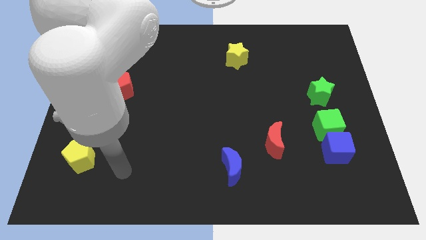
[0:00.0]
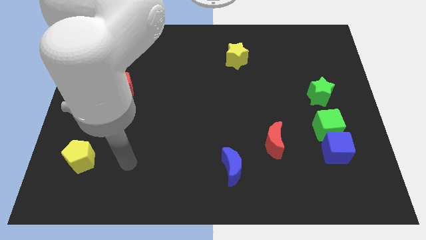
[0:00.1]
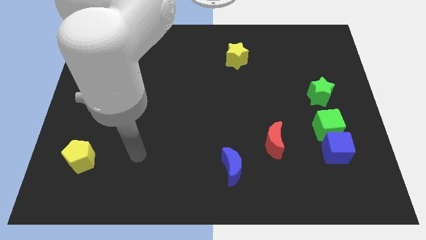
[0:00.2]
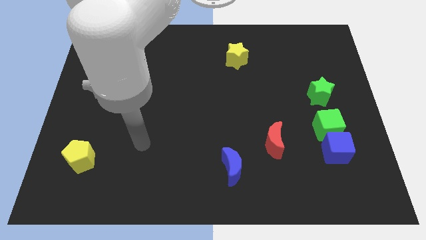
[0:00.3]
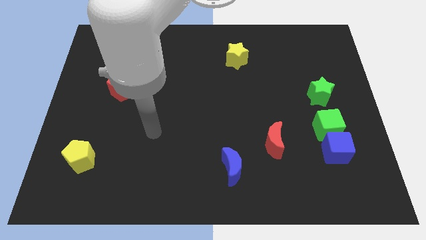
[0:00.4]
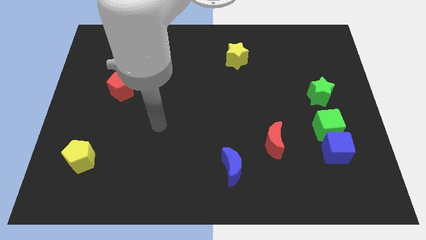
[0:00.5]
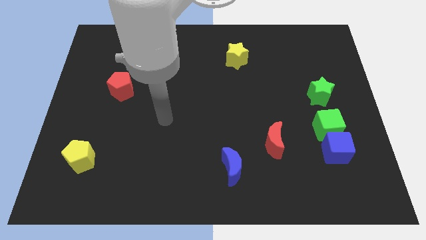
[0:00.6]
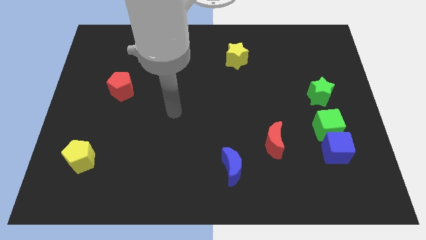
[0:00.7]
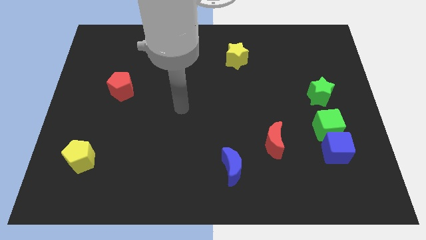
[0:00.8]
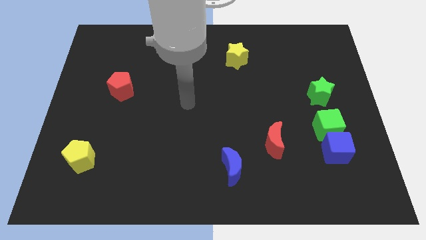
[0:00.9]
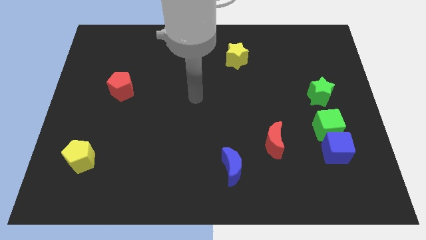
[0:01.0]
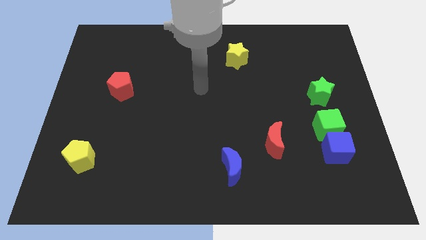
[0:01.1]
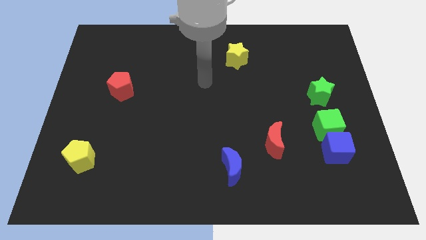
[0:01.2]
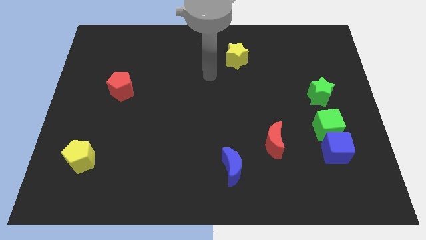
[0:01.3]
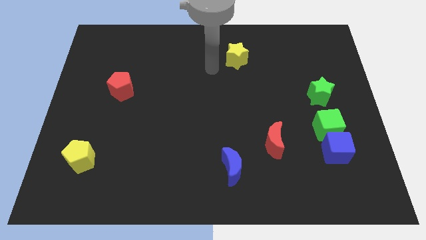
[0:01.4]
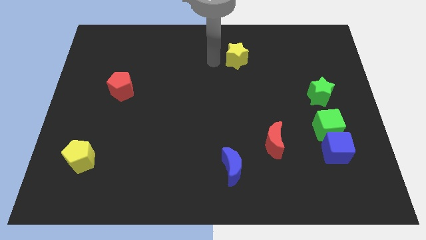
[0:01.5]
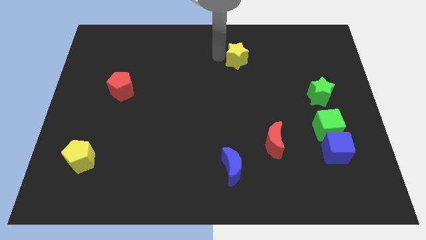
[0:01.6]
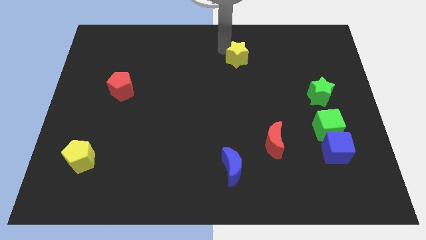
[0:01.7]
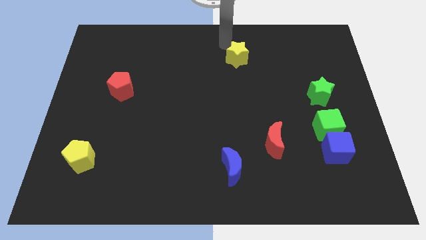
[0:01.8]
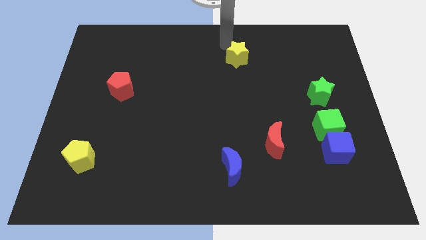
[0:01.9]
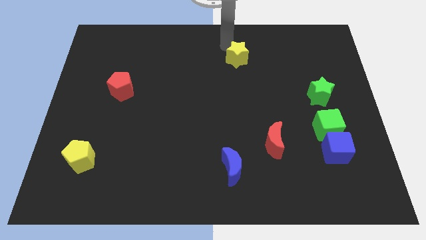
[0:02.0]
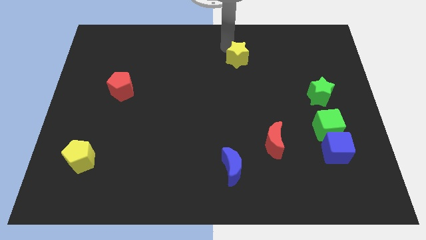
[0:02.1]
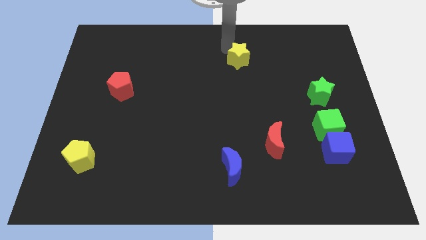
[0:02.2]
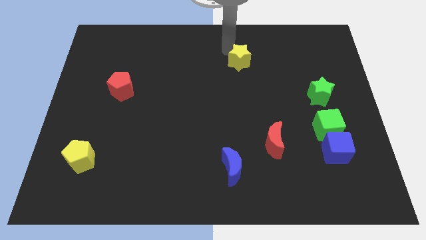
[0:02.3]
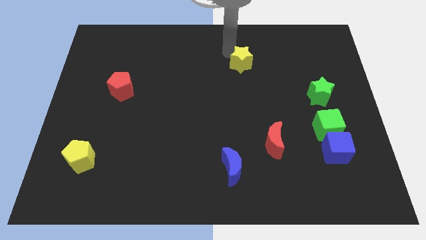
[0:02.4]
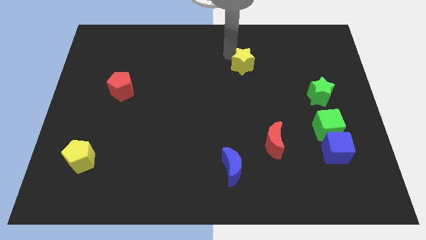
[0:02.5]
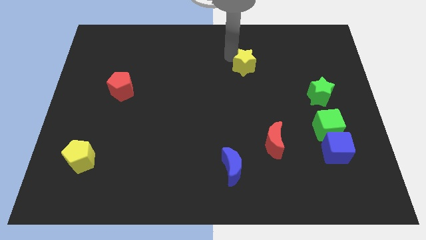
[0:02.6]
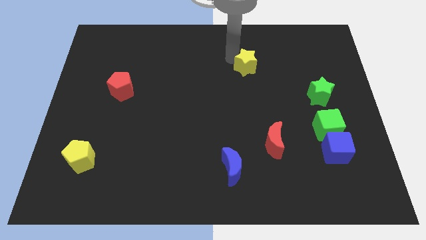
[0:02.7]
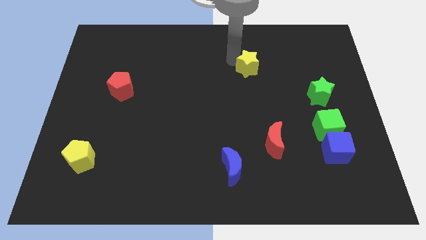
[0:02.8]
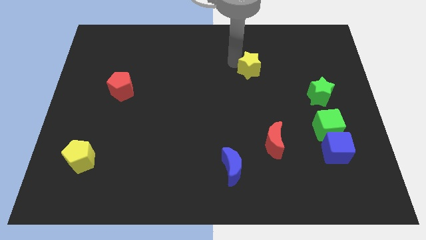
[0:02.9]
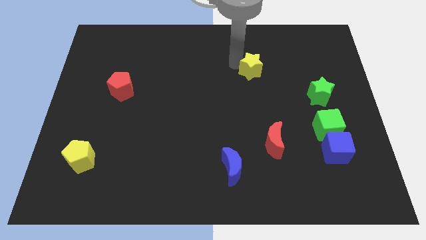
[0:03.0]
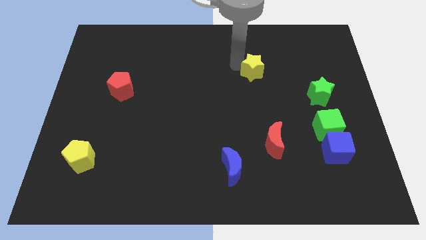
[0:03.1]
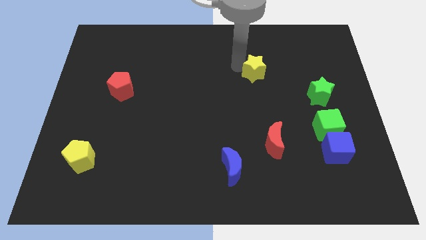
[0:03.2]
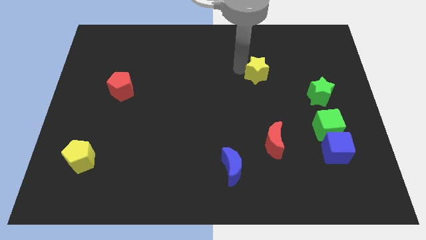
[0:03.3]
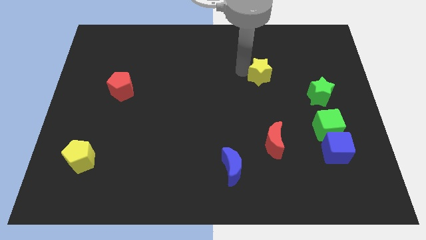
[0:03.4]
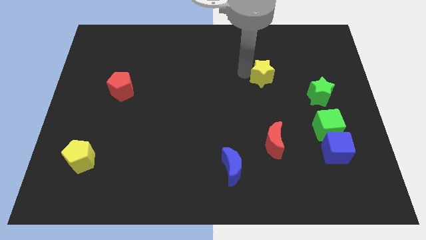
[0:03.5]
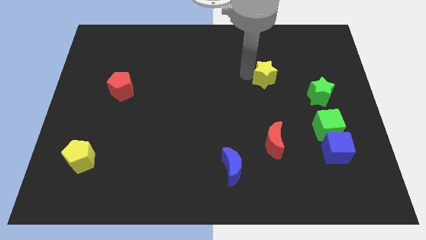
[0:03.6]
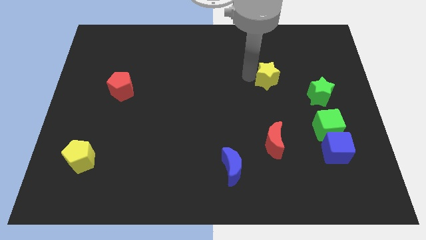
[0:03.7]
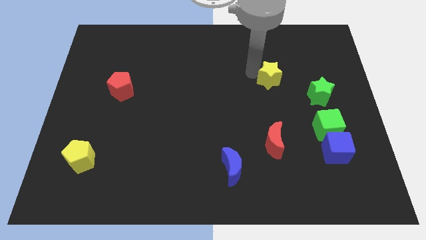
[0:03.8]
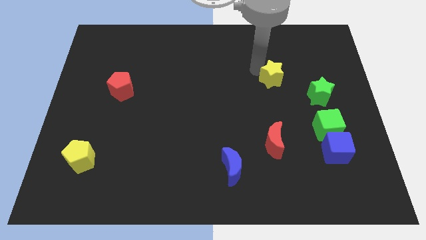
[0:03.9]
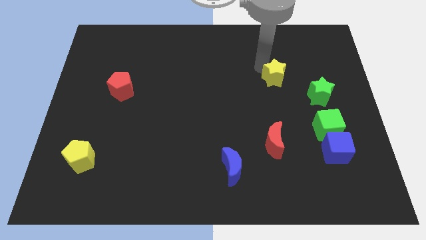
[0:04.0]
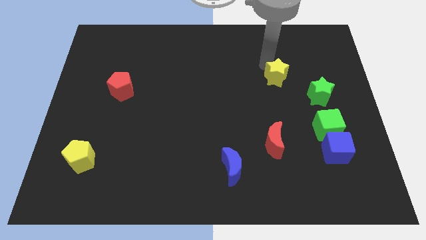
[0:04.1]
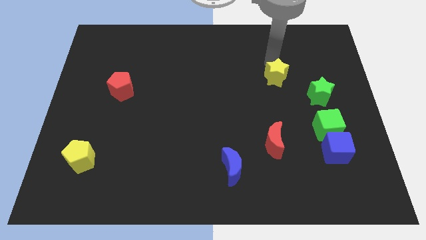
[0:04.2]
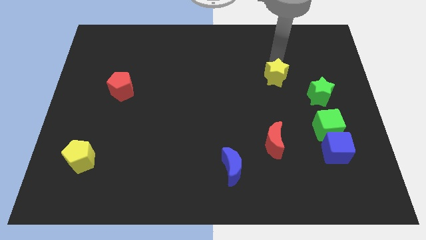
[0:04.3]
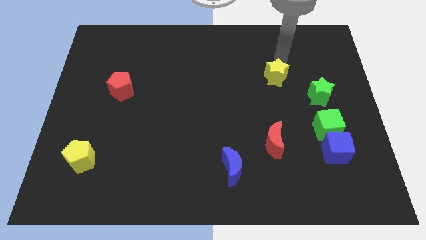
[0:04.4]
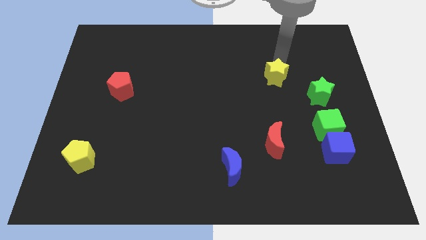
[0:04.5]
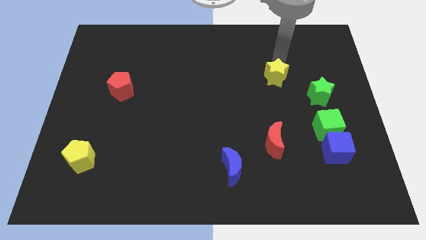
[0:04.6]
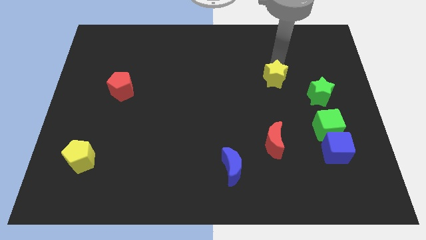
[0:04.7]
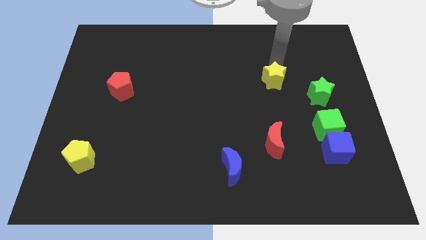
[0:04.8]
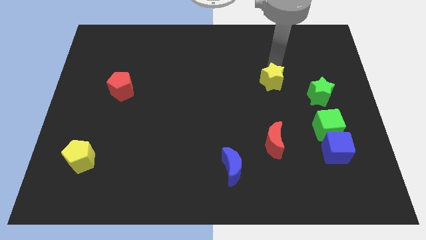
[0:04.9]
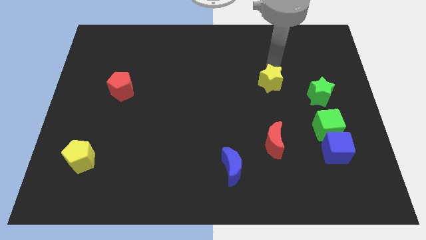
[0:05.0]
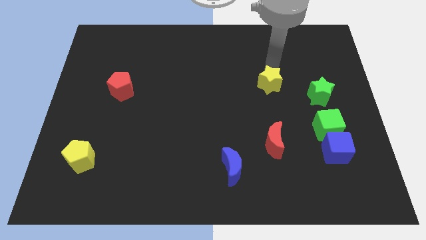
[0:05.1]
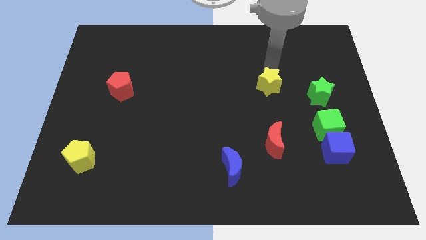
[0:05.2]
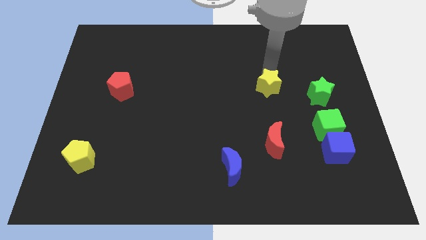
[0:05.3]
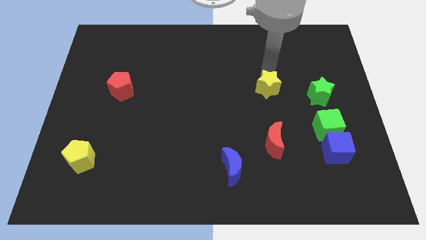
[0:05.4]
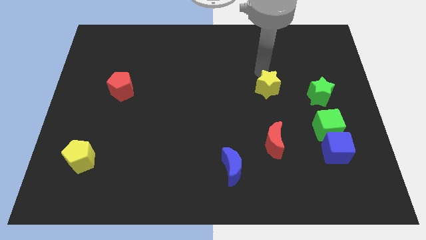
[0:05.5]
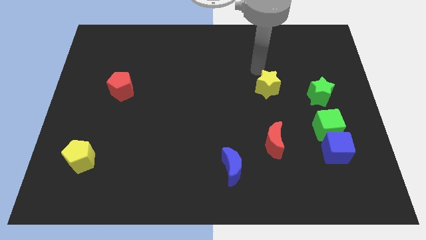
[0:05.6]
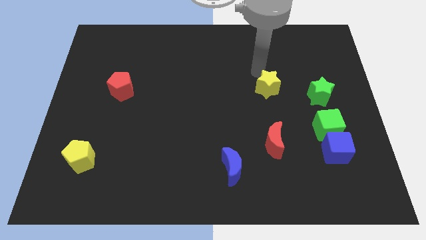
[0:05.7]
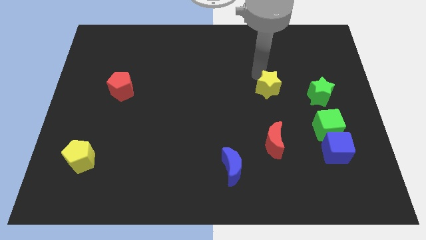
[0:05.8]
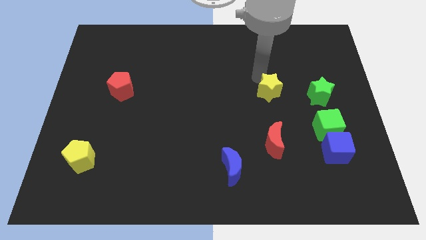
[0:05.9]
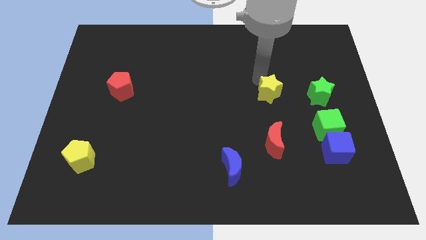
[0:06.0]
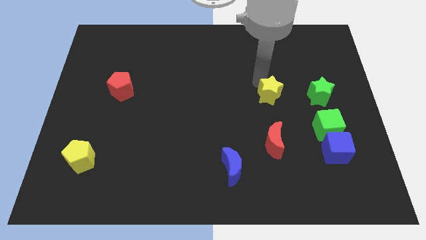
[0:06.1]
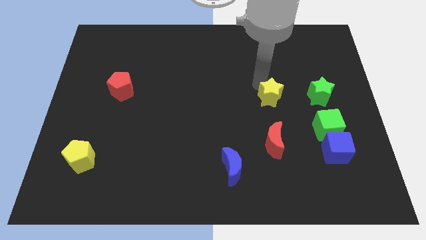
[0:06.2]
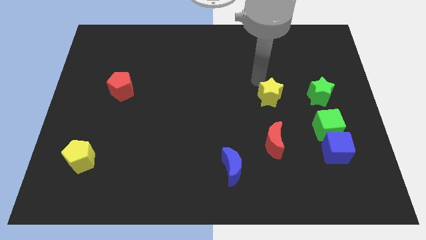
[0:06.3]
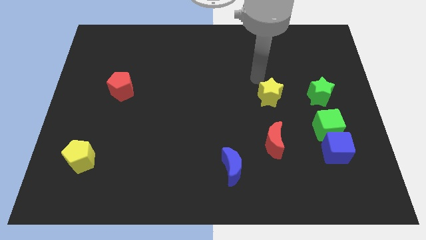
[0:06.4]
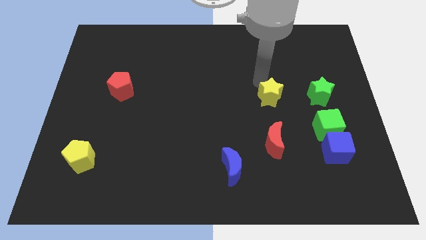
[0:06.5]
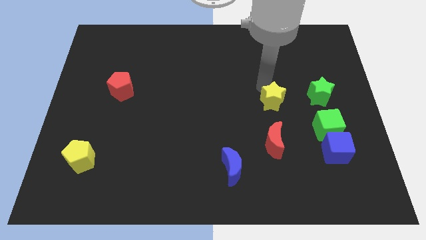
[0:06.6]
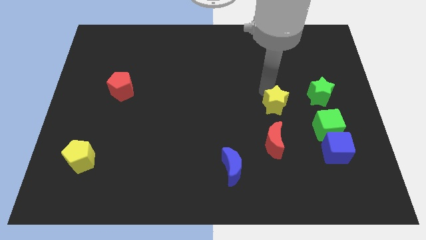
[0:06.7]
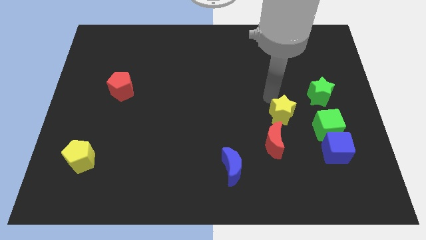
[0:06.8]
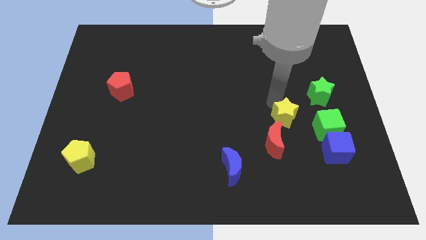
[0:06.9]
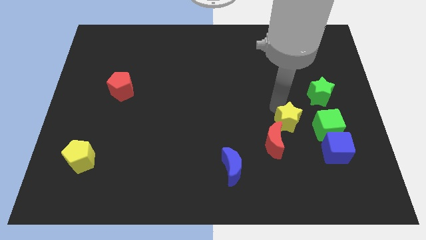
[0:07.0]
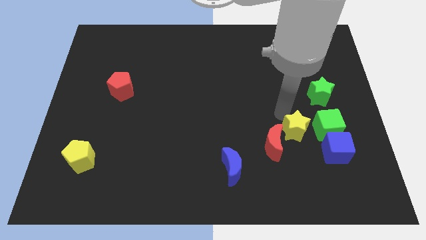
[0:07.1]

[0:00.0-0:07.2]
slide the yellow star to the bottom left of the green cube
